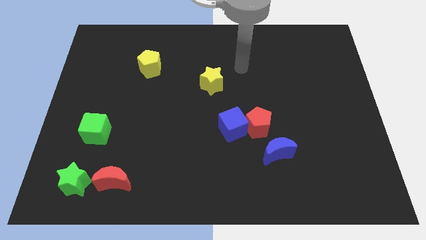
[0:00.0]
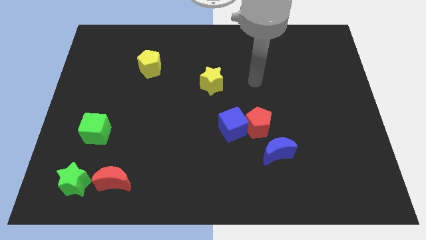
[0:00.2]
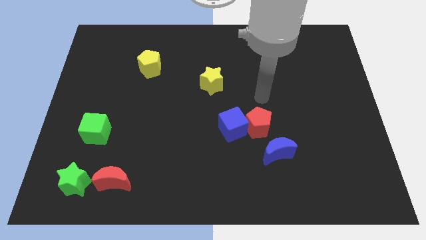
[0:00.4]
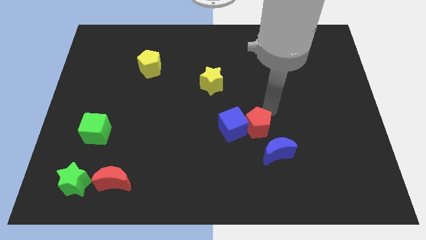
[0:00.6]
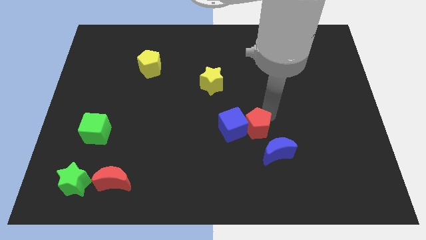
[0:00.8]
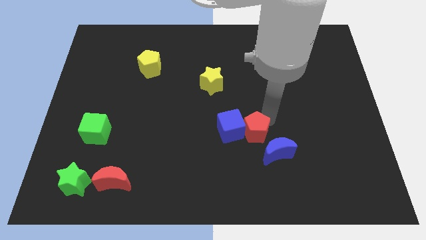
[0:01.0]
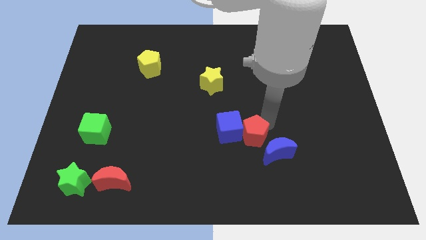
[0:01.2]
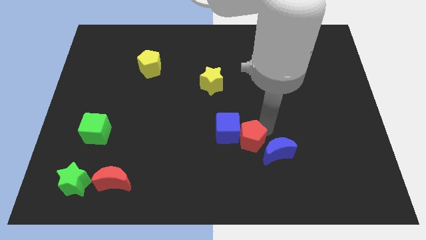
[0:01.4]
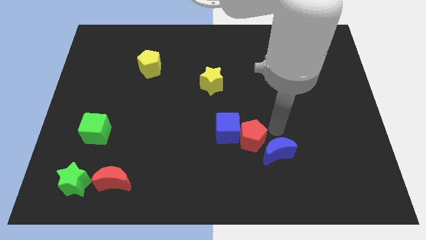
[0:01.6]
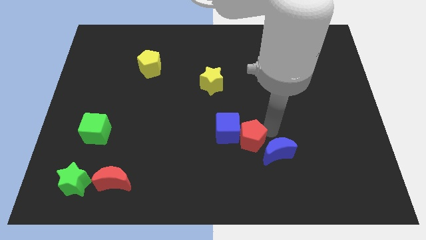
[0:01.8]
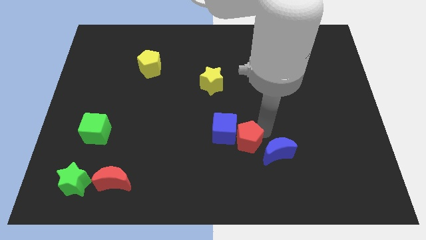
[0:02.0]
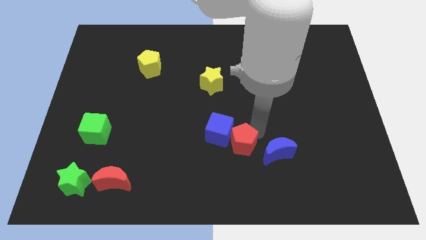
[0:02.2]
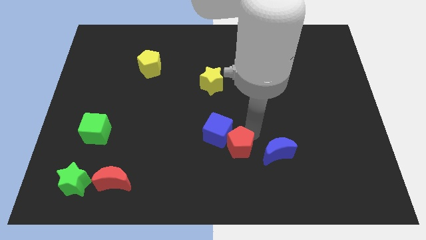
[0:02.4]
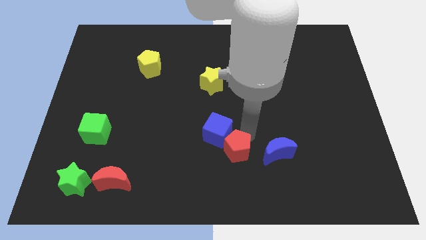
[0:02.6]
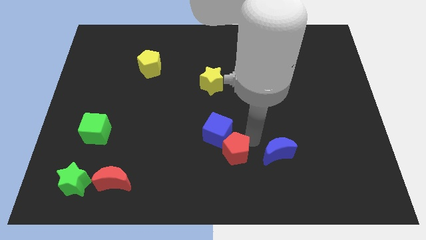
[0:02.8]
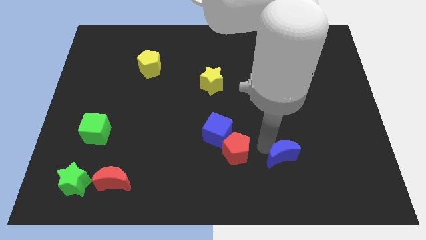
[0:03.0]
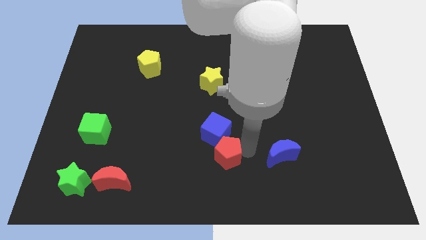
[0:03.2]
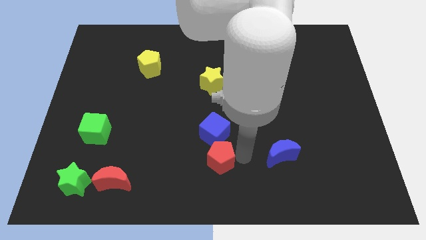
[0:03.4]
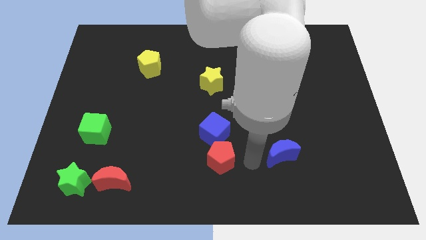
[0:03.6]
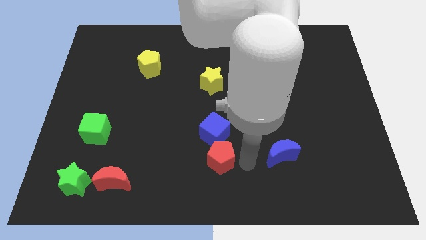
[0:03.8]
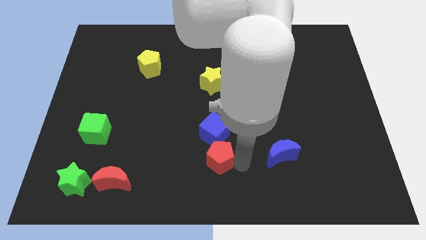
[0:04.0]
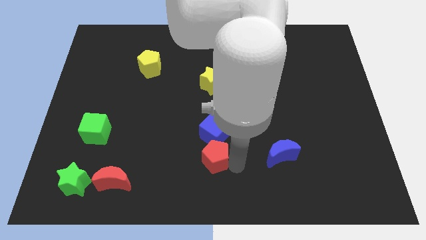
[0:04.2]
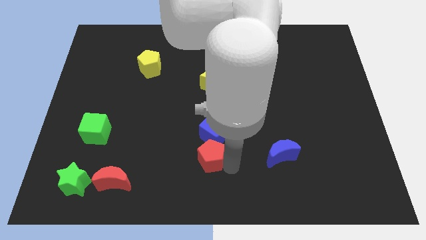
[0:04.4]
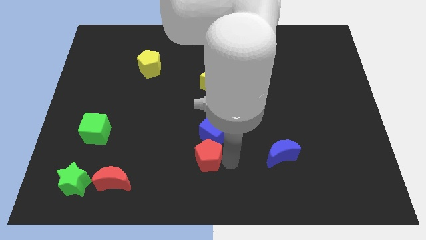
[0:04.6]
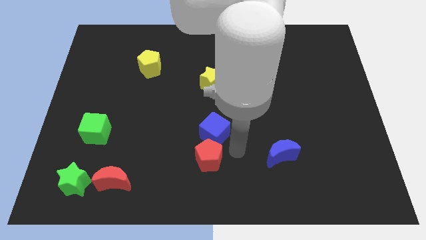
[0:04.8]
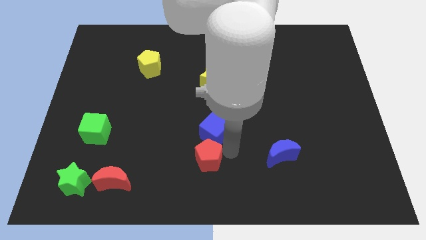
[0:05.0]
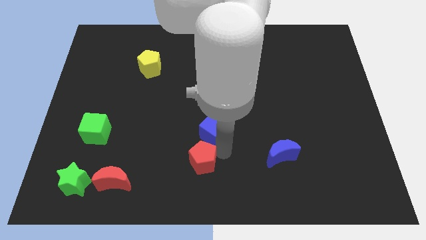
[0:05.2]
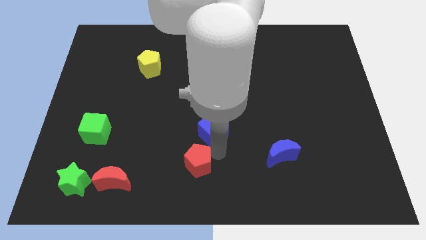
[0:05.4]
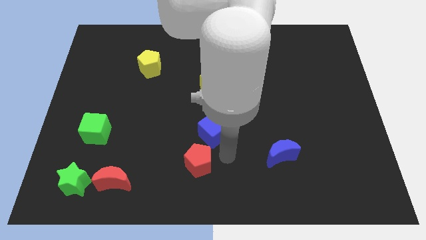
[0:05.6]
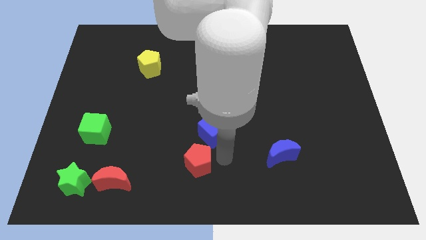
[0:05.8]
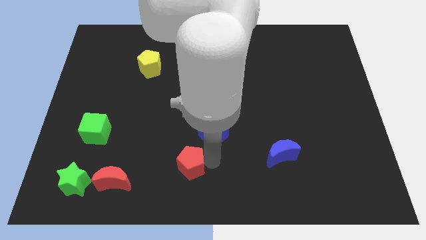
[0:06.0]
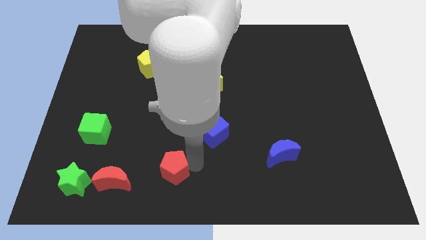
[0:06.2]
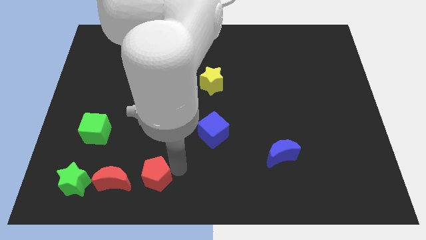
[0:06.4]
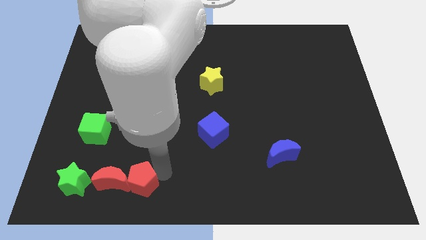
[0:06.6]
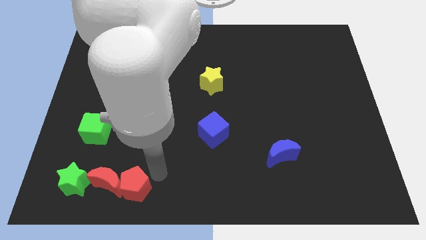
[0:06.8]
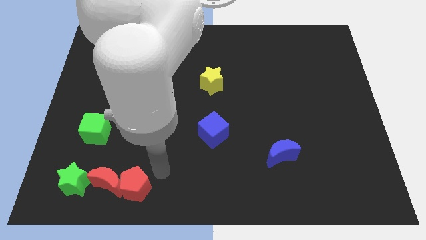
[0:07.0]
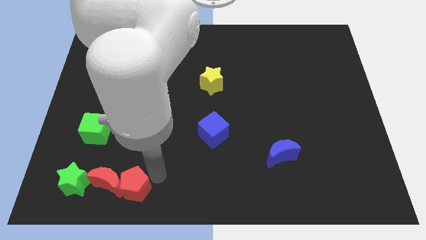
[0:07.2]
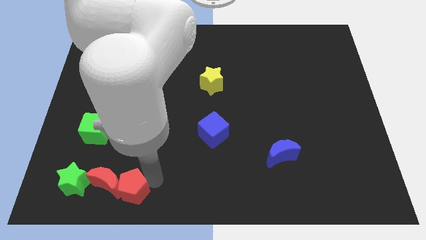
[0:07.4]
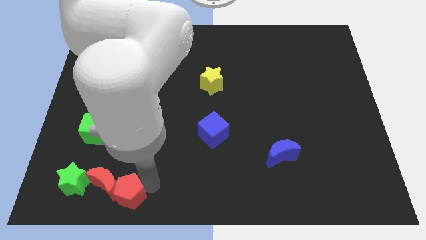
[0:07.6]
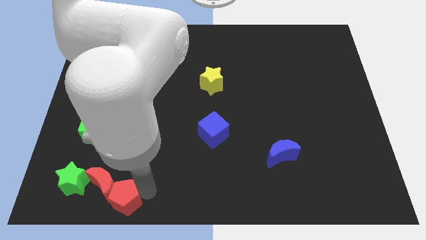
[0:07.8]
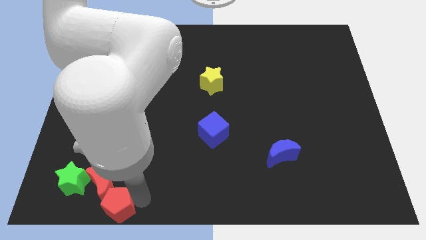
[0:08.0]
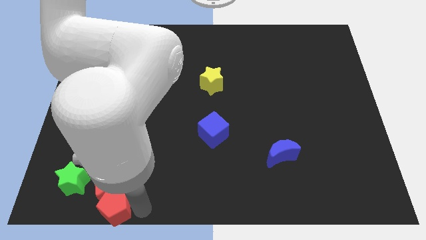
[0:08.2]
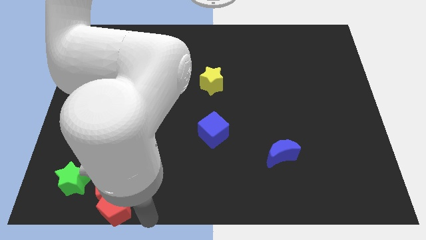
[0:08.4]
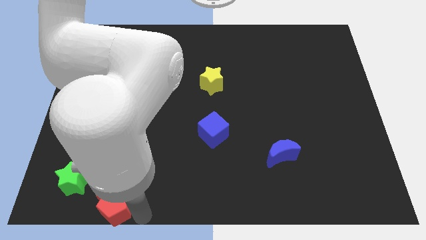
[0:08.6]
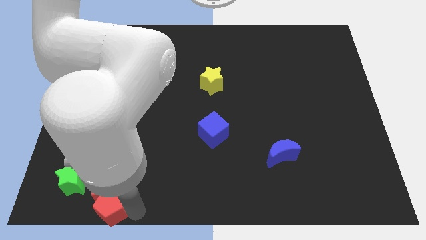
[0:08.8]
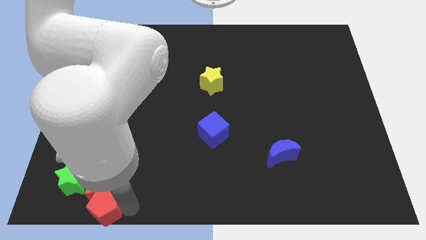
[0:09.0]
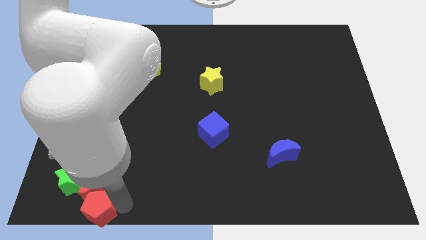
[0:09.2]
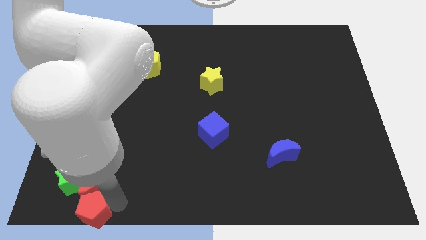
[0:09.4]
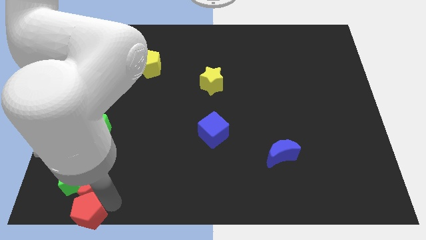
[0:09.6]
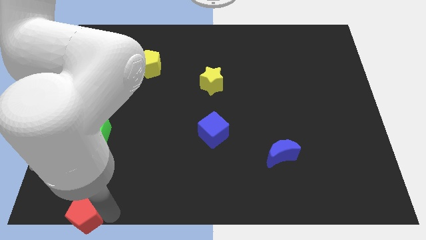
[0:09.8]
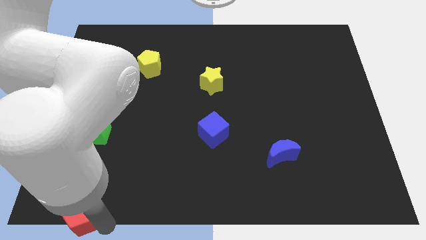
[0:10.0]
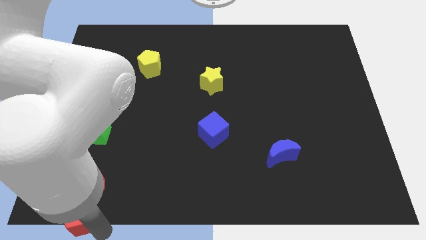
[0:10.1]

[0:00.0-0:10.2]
push the red pentagon to the bottom left
